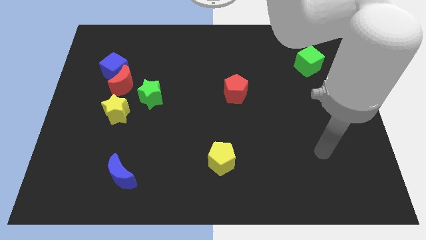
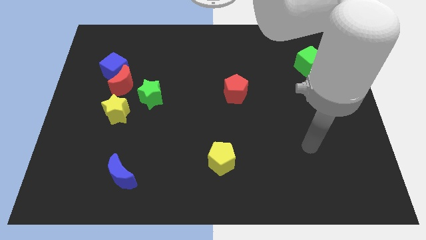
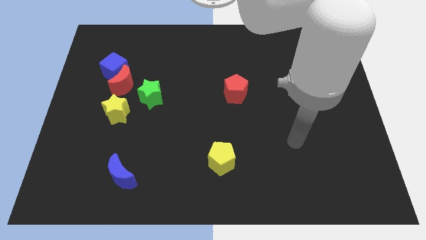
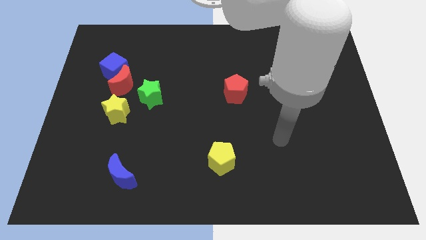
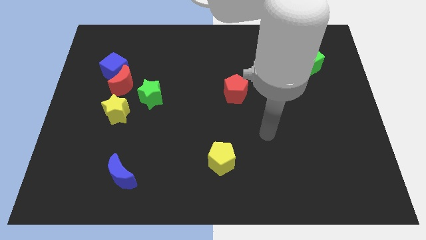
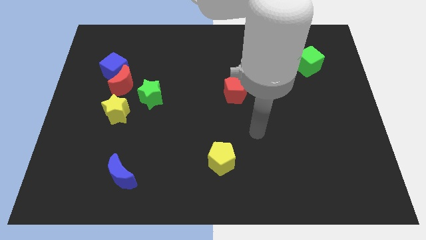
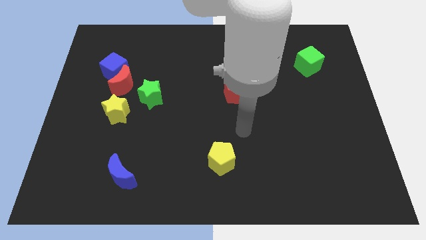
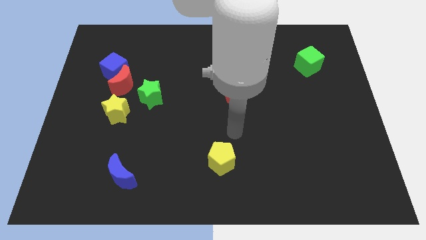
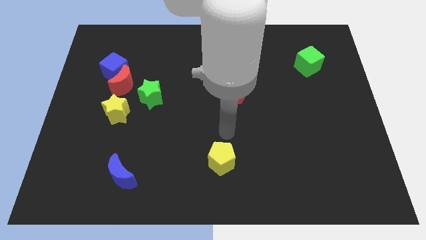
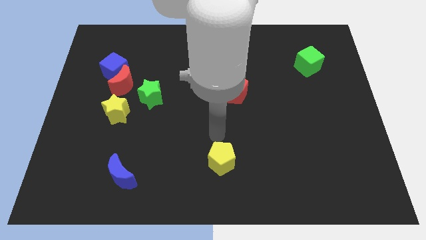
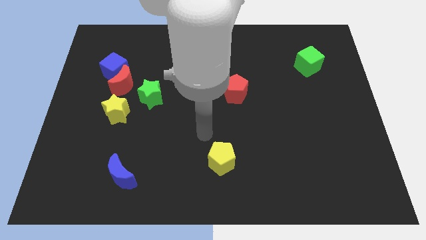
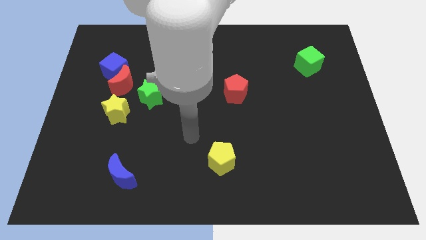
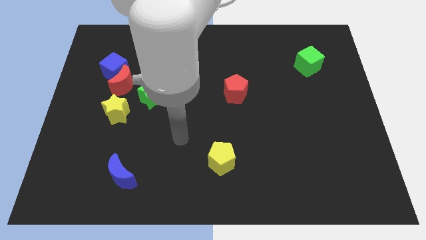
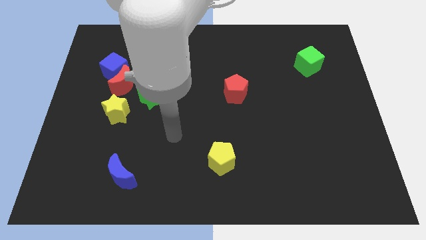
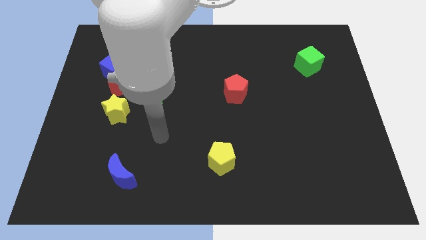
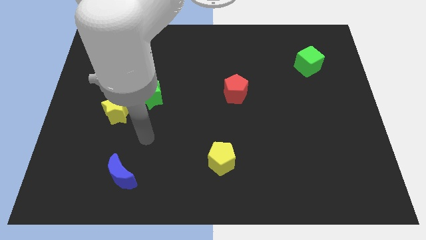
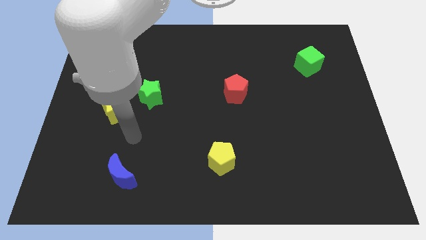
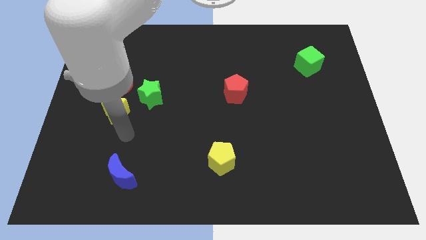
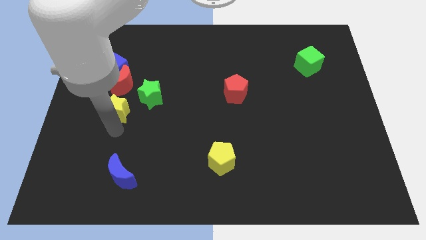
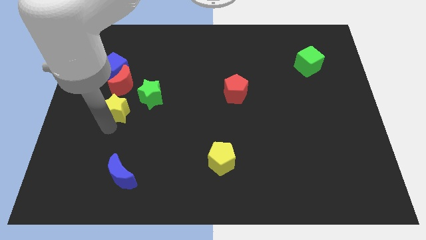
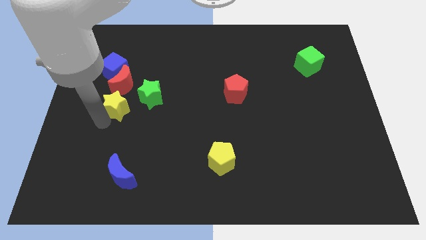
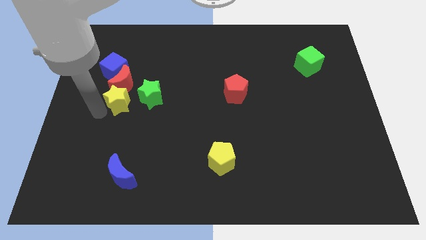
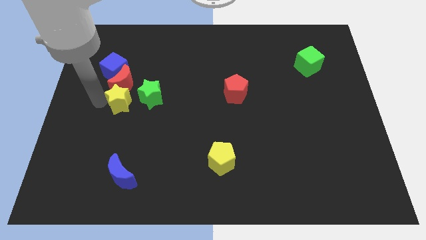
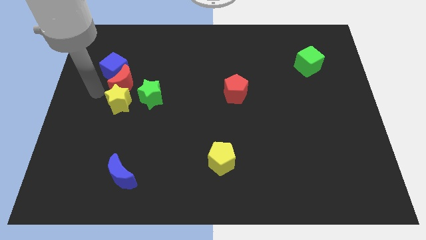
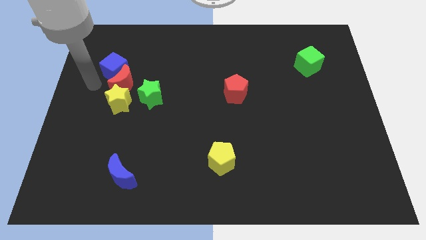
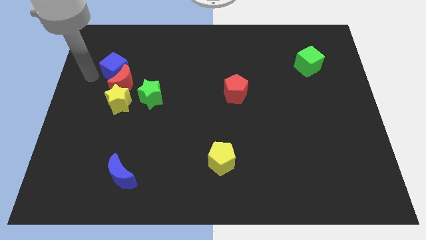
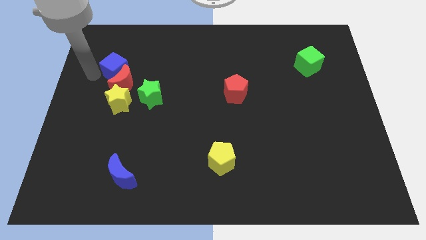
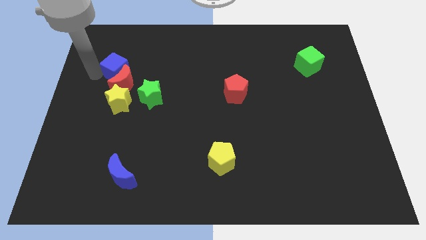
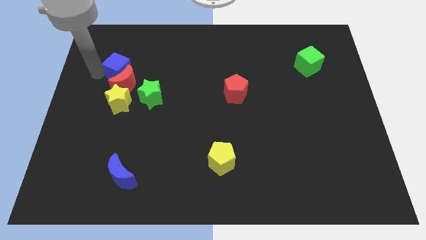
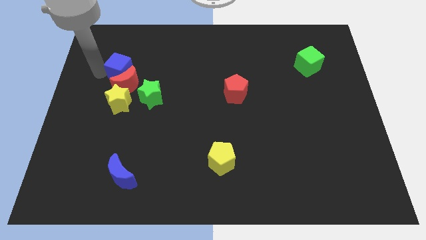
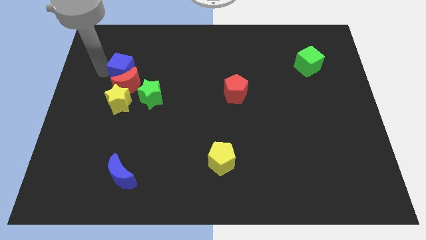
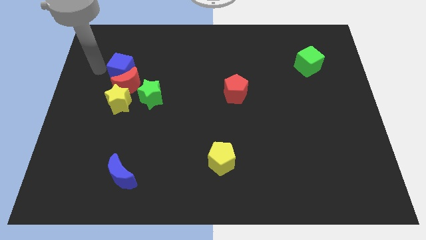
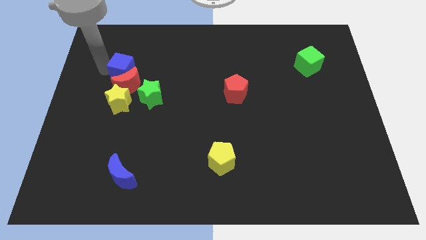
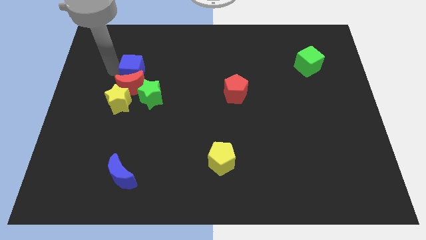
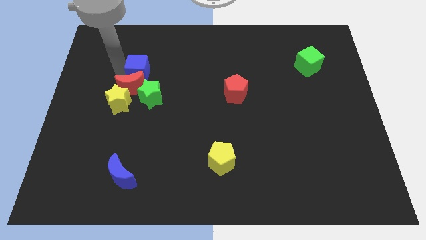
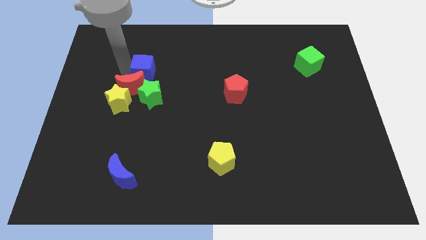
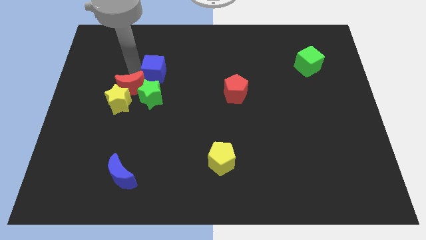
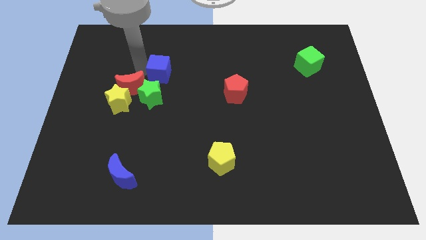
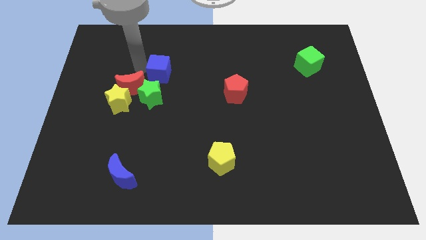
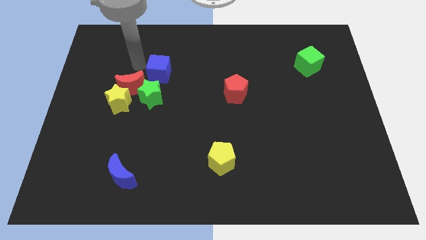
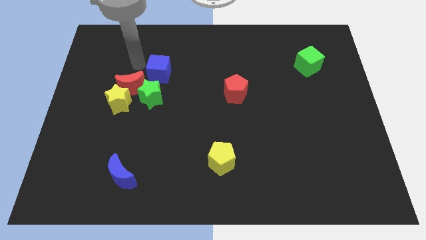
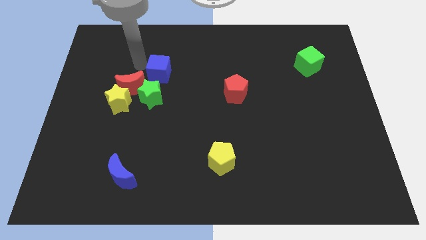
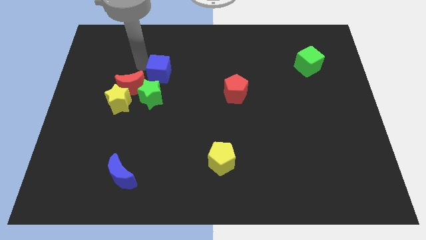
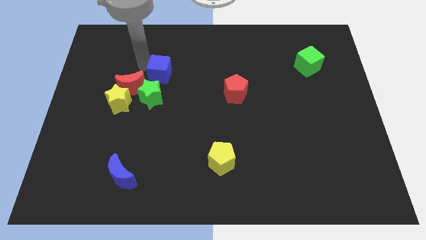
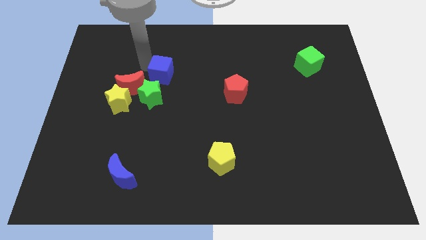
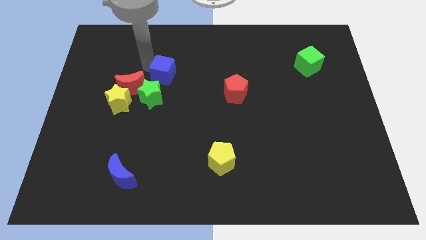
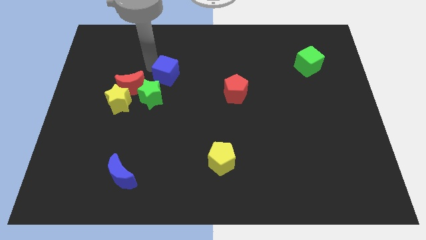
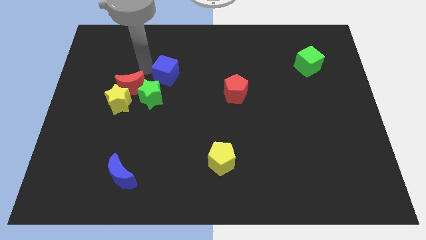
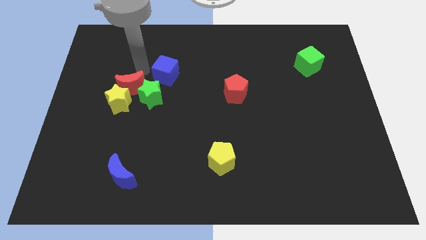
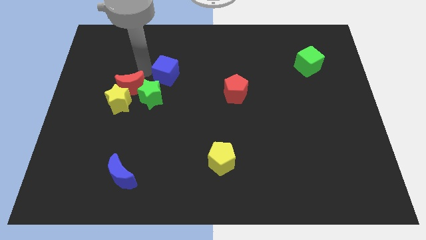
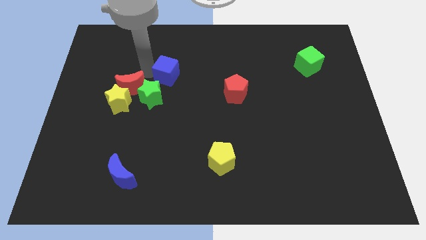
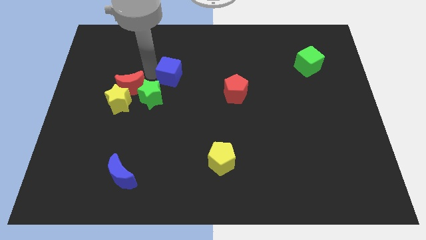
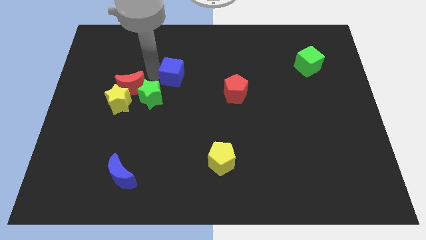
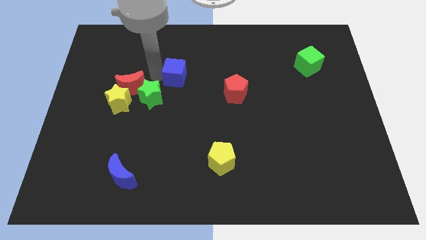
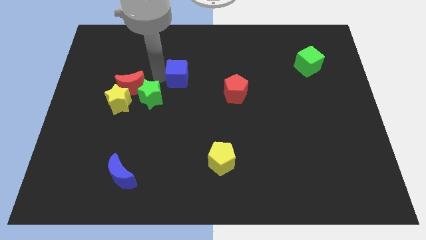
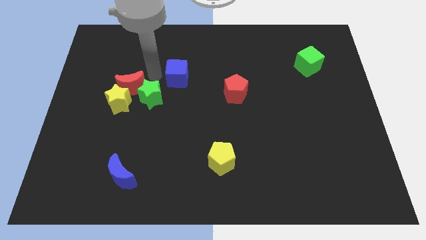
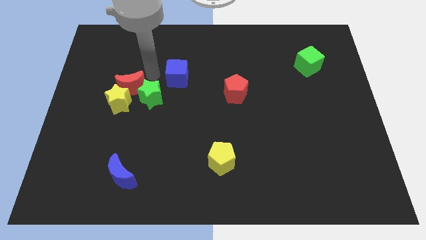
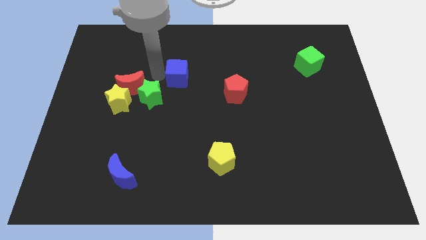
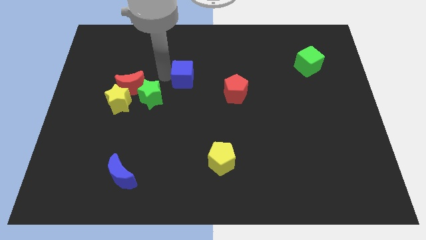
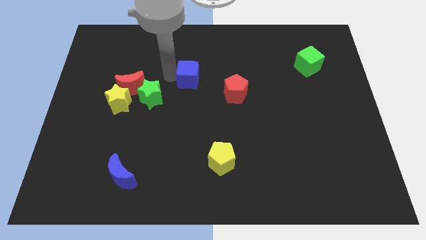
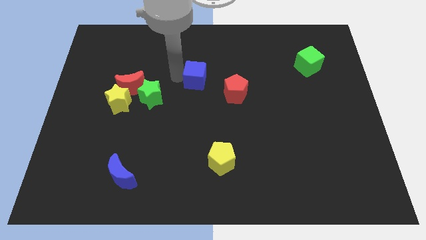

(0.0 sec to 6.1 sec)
push the blue cube to the right

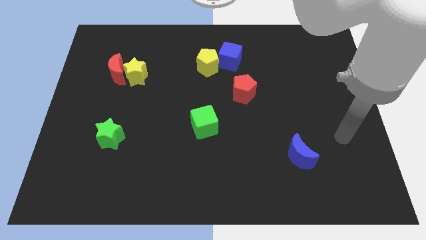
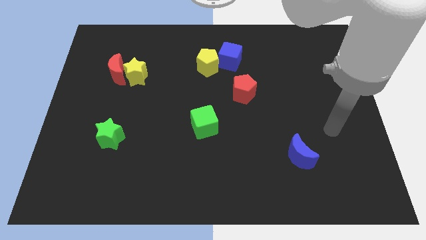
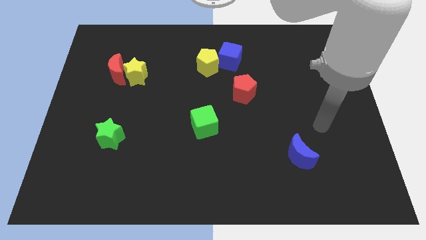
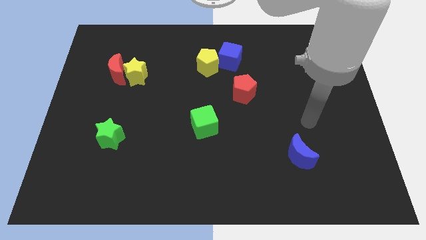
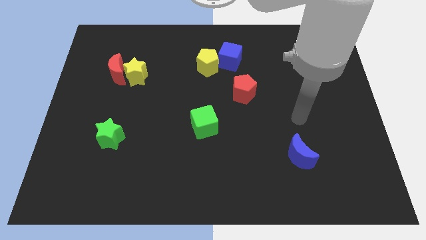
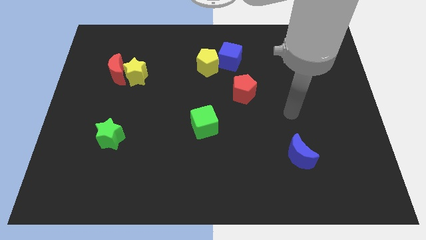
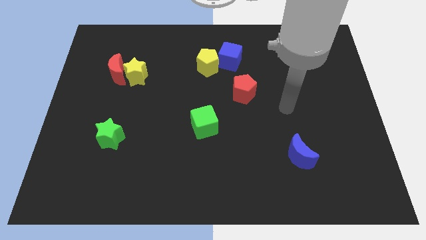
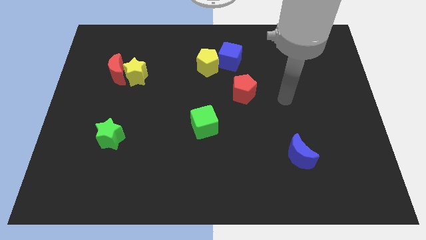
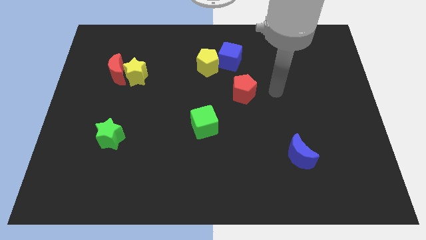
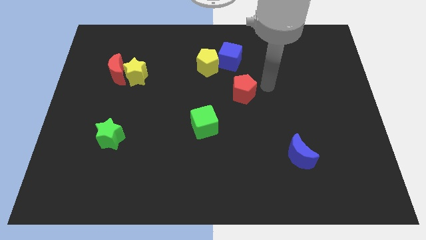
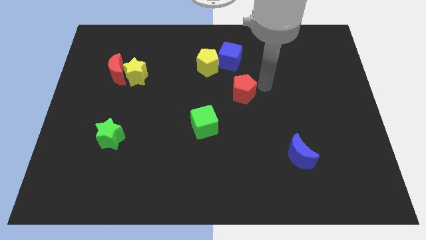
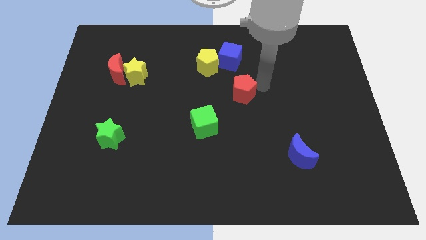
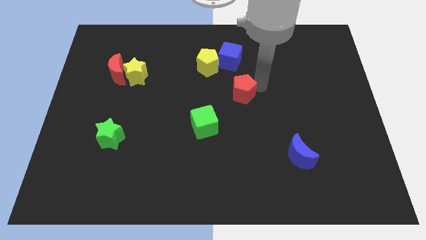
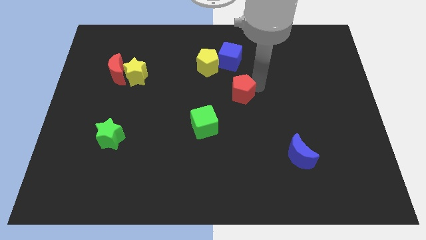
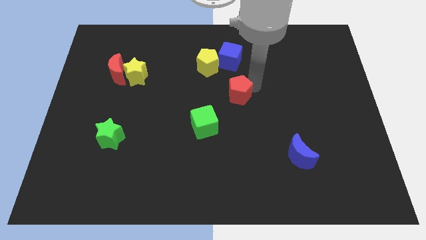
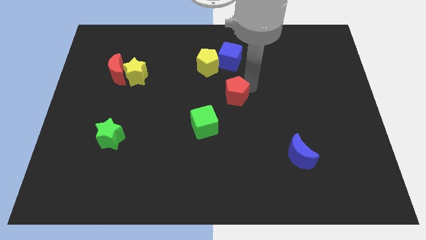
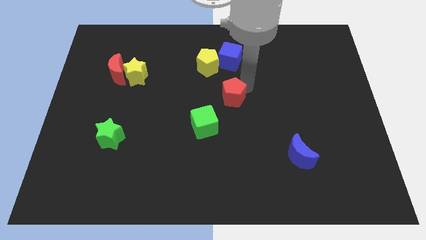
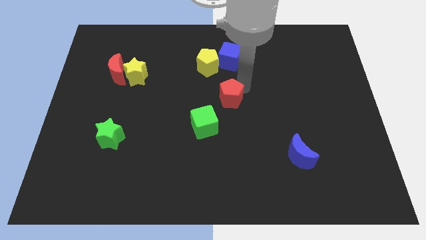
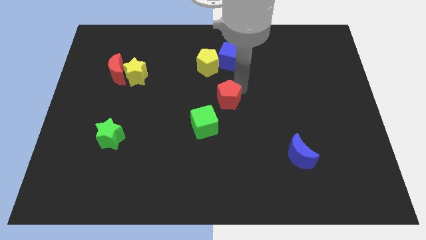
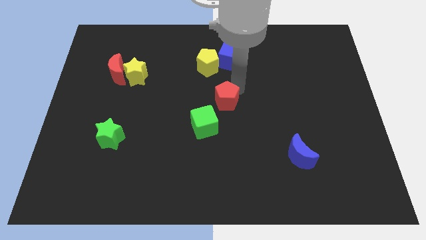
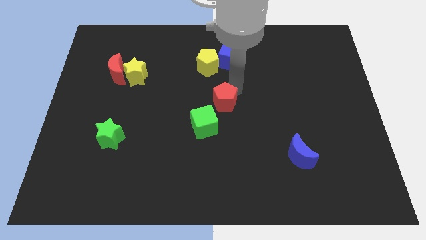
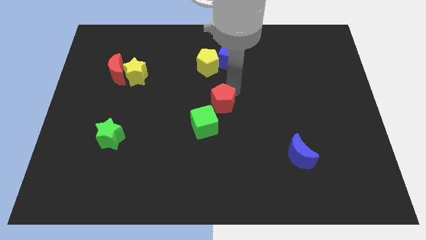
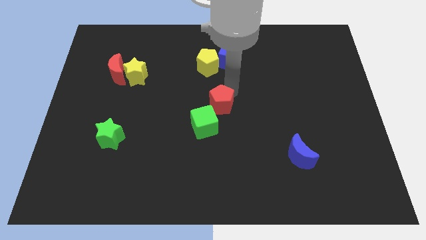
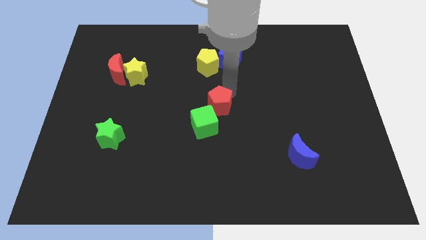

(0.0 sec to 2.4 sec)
slide the red pentagon somewhat diagonally downwards and left
